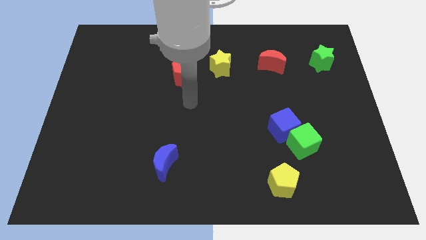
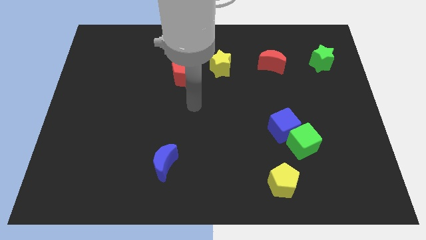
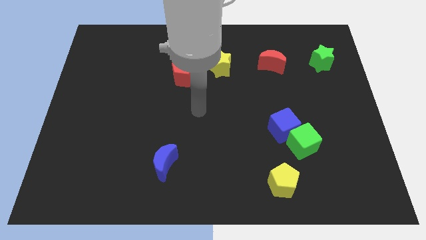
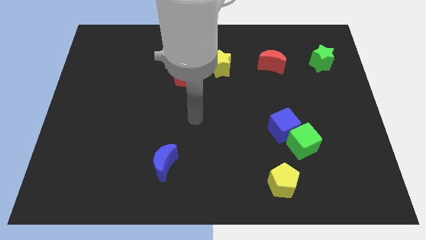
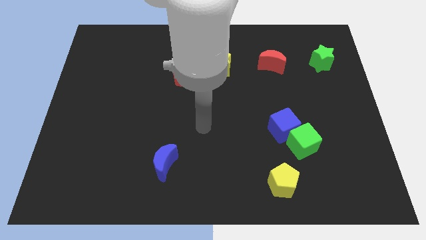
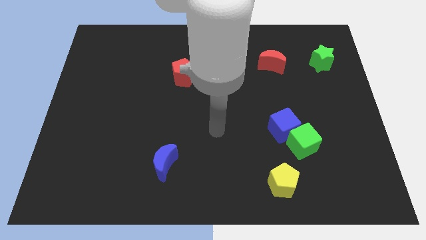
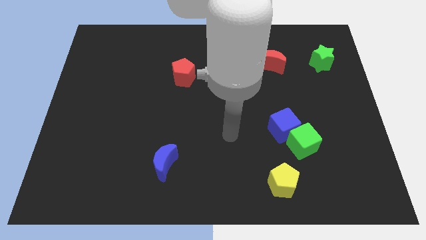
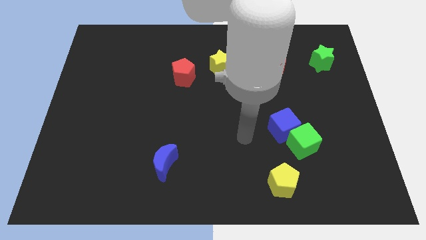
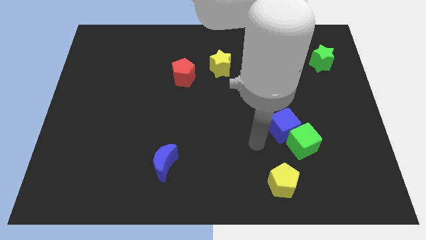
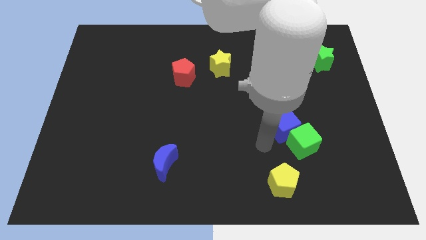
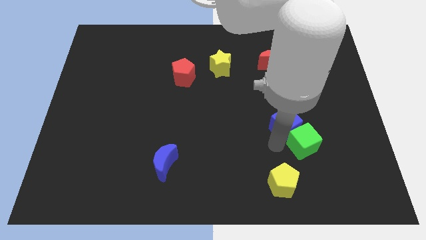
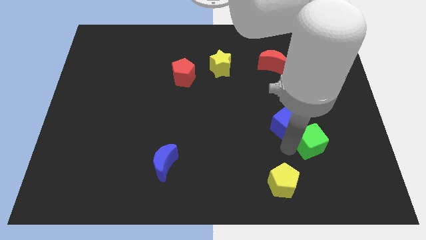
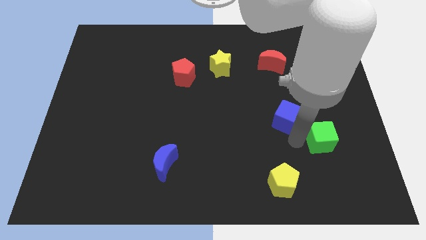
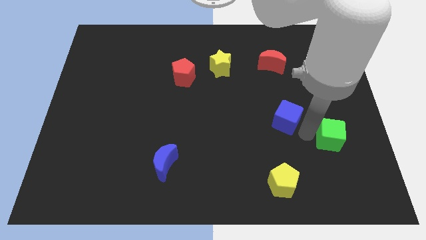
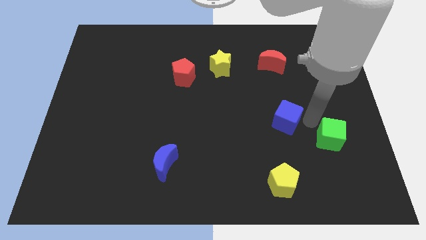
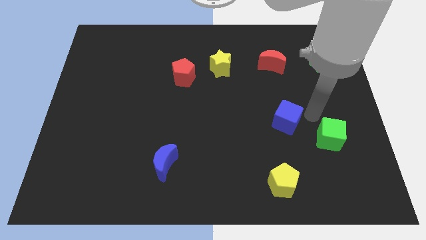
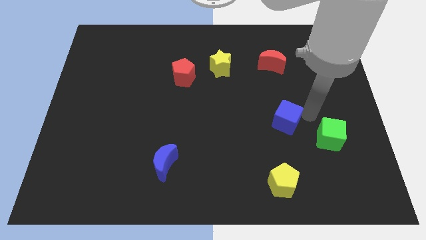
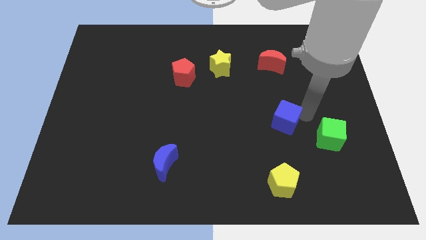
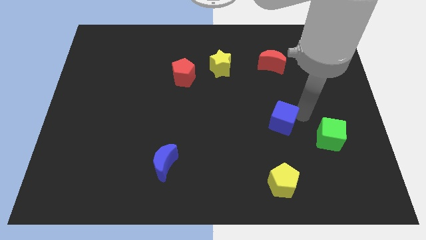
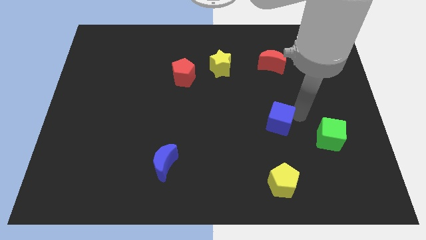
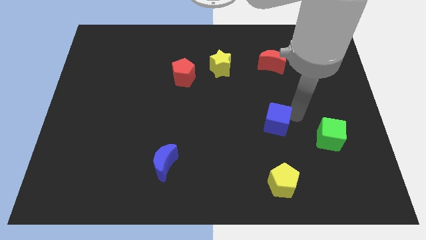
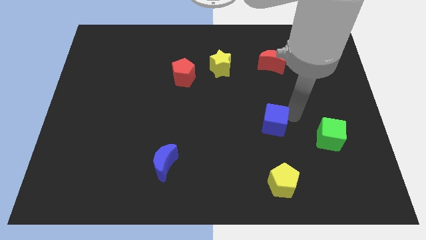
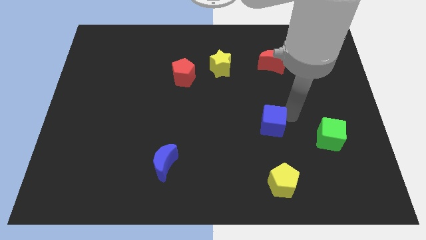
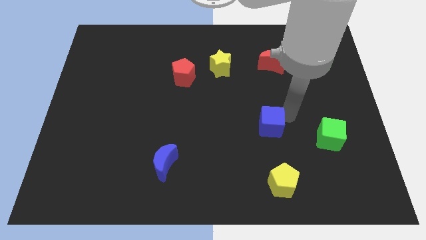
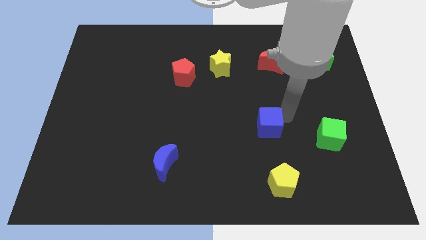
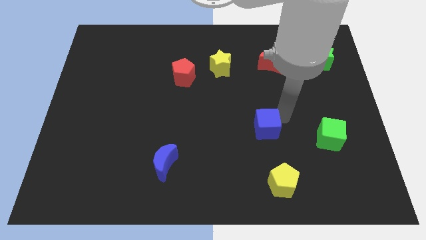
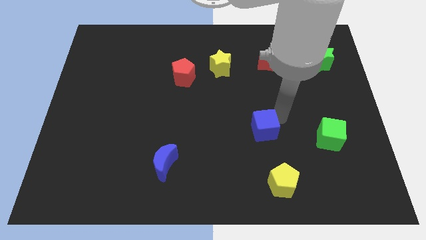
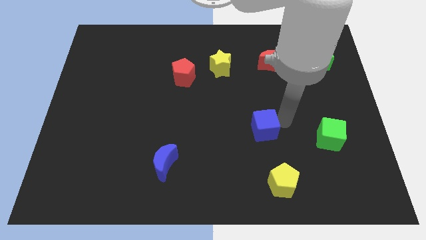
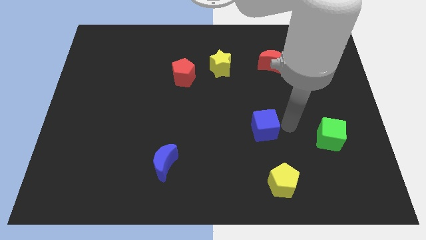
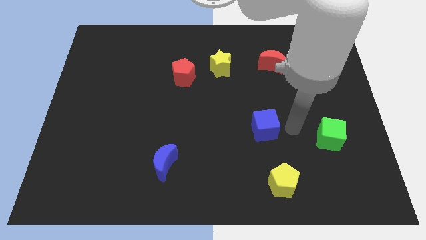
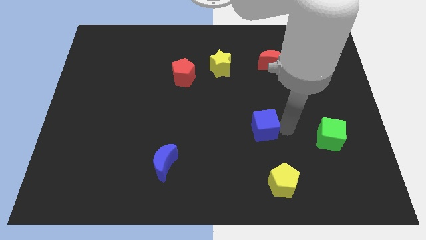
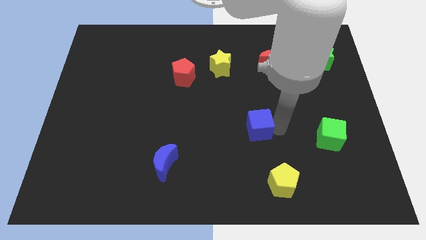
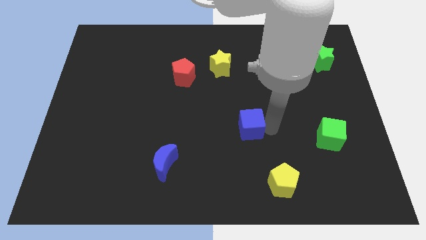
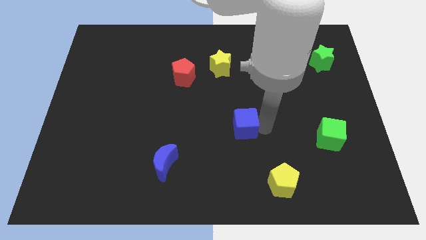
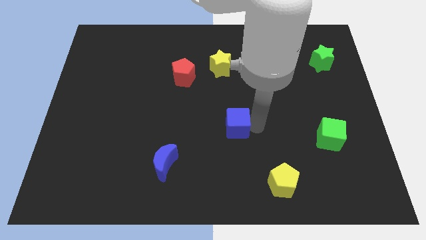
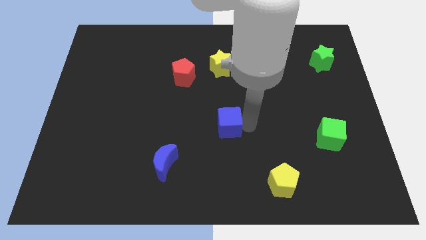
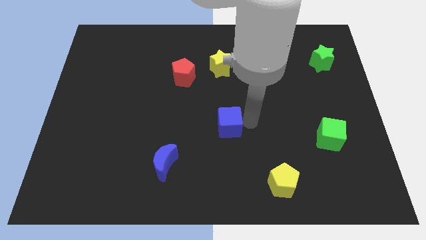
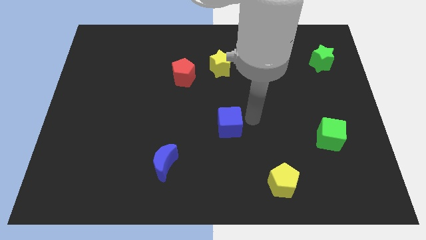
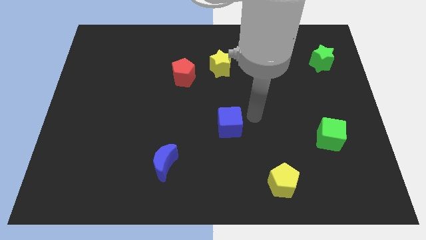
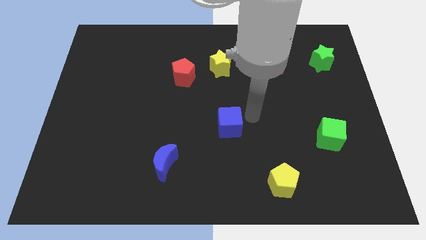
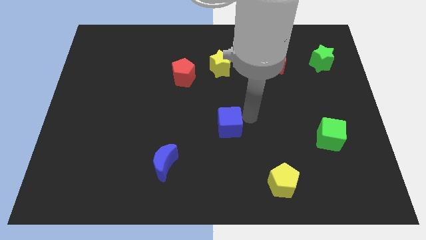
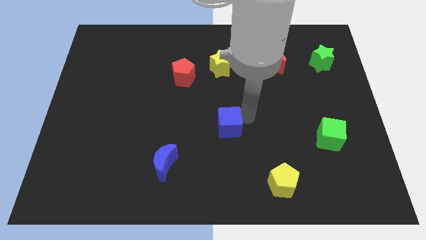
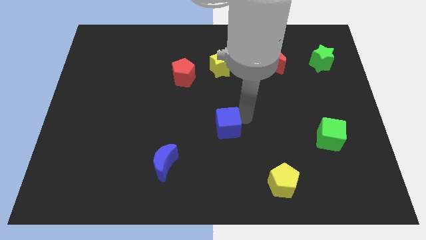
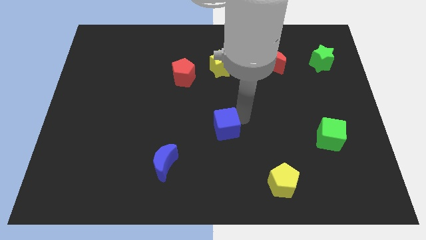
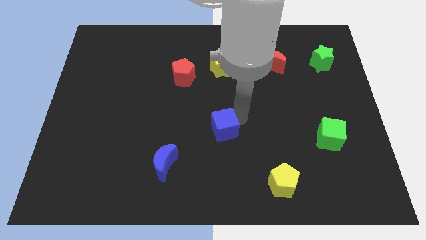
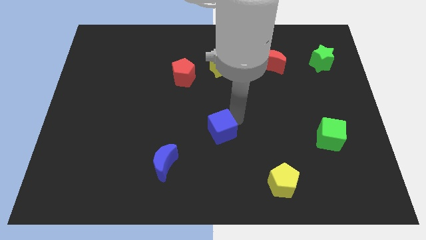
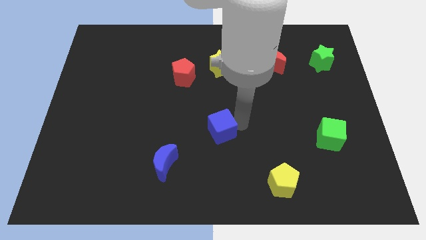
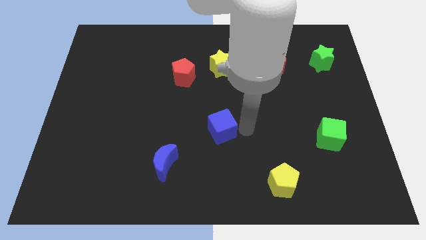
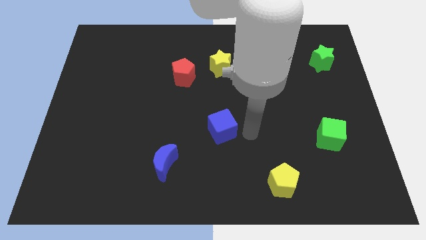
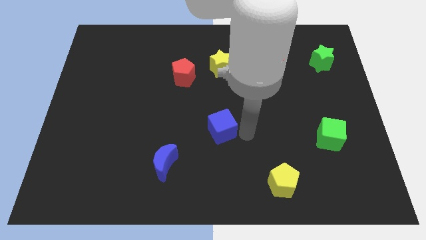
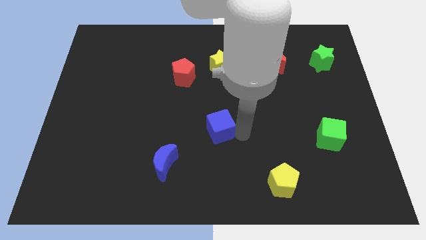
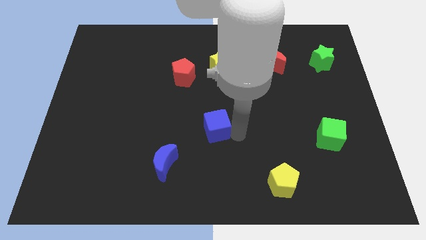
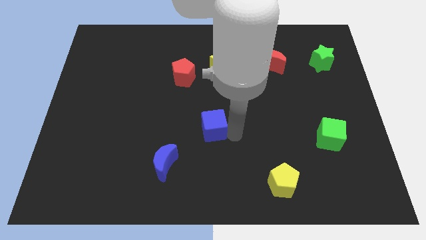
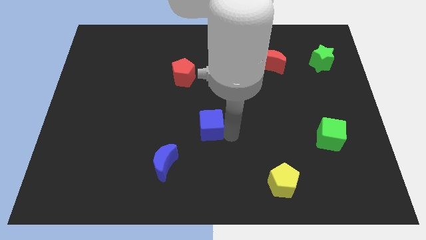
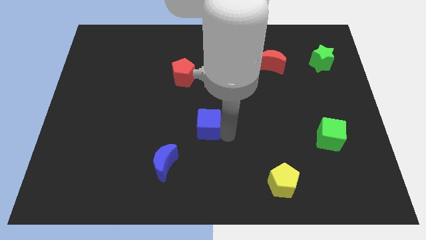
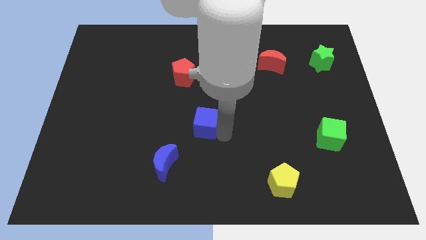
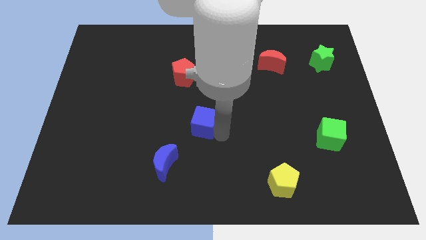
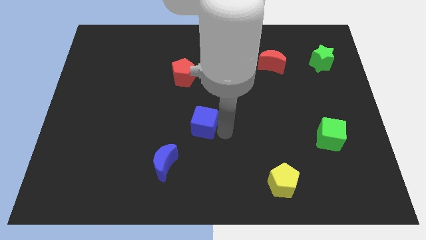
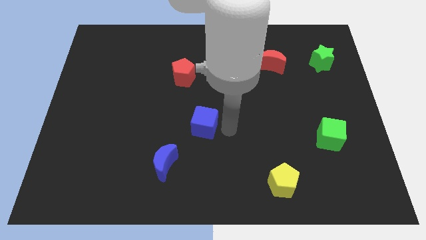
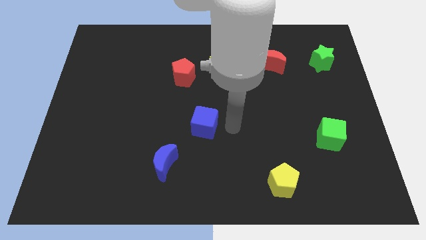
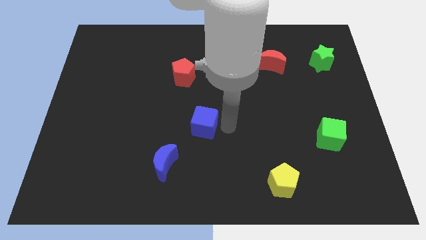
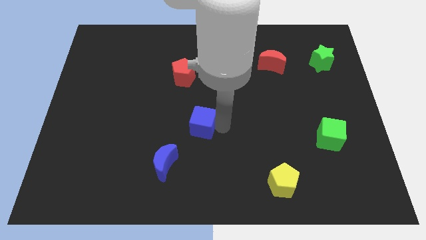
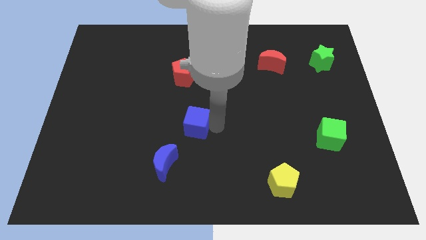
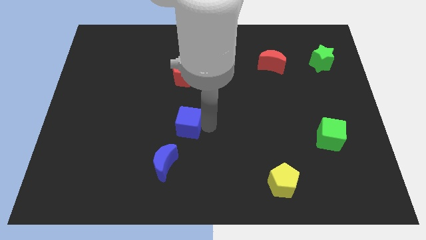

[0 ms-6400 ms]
push the blue cube to the left

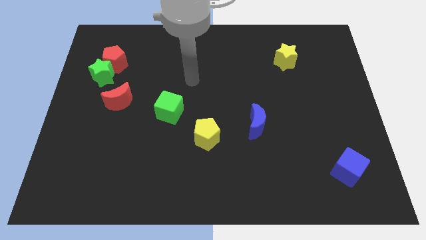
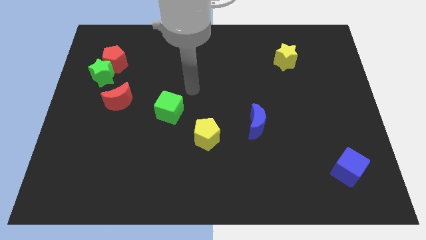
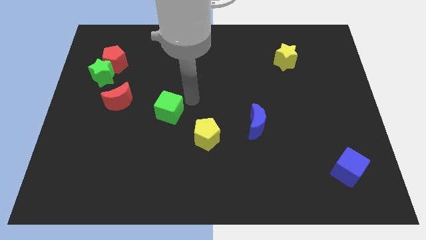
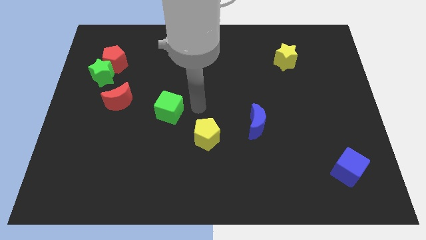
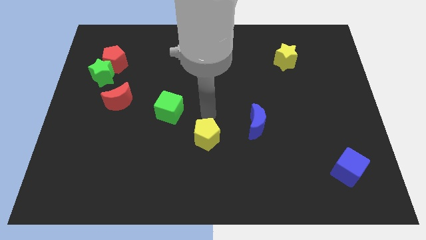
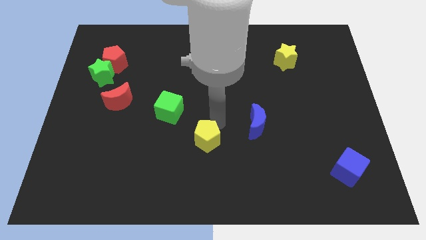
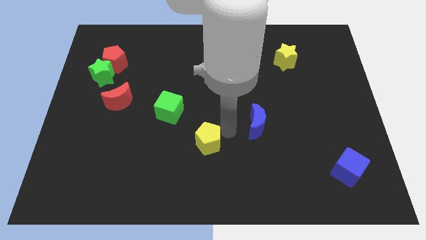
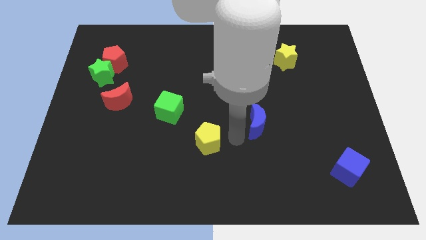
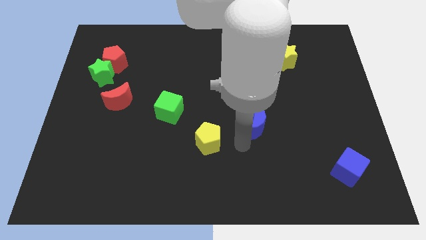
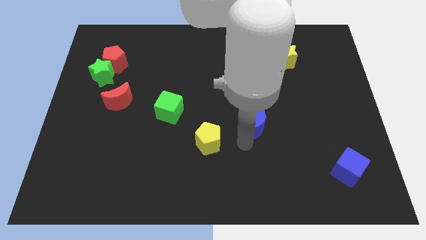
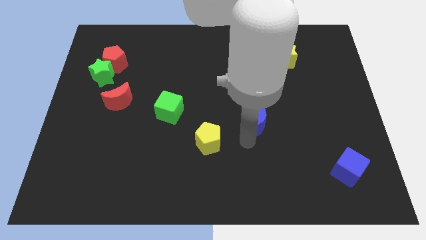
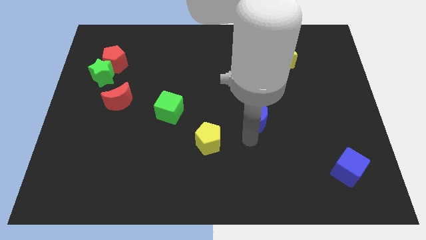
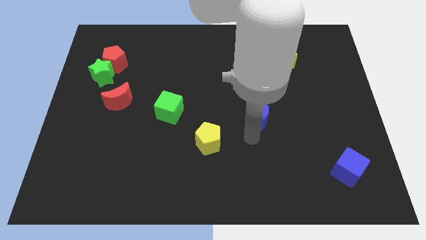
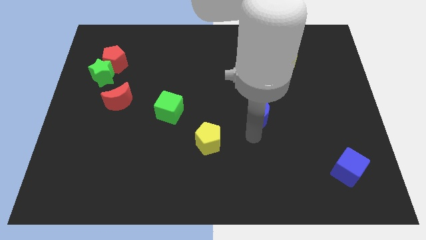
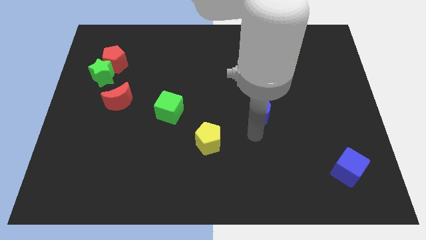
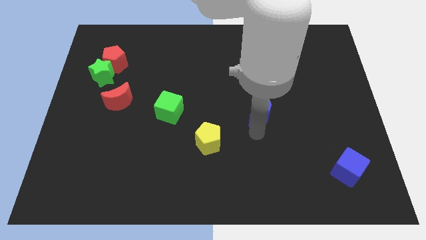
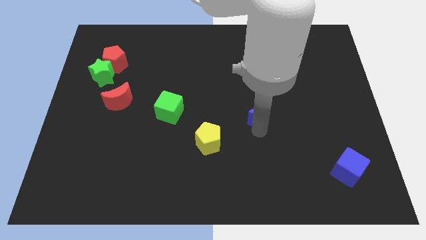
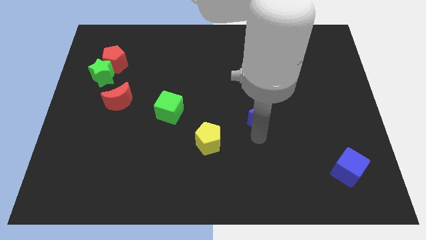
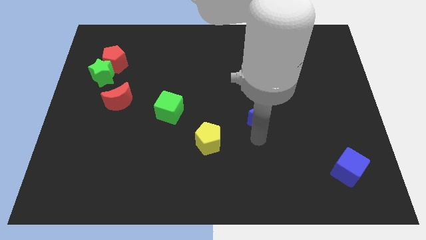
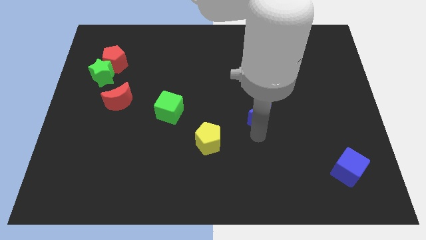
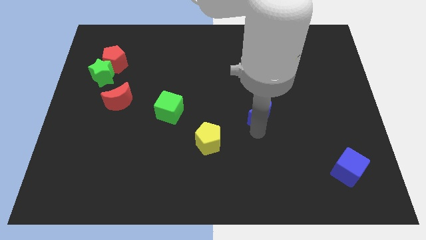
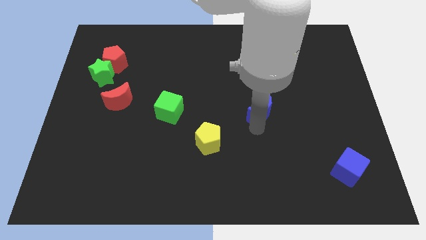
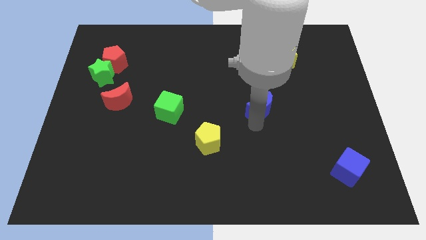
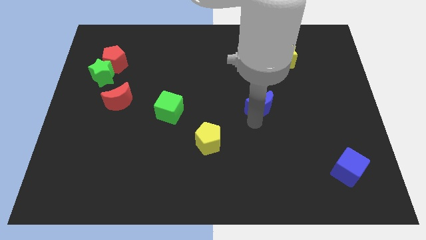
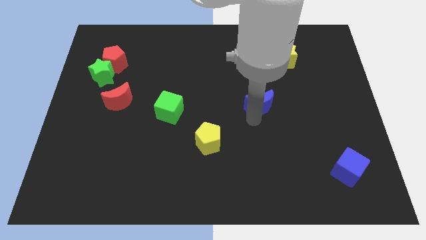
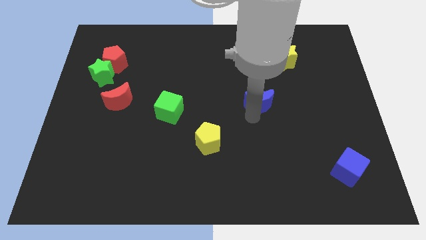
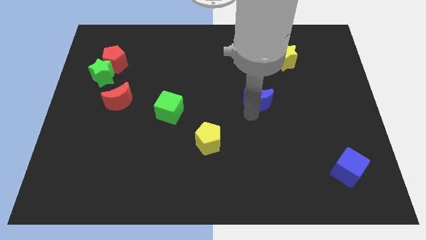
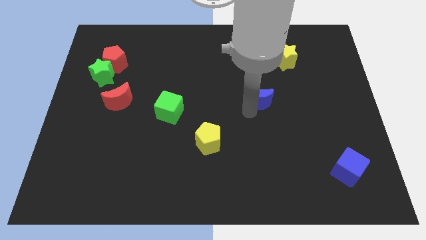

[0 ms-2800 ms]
move the blue moon upwards a bit
